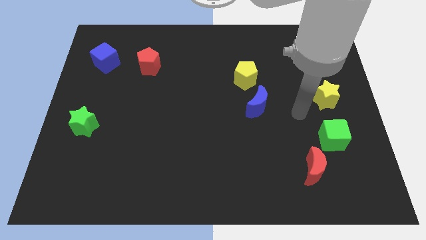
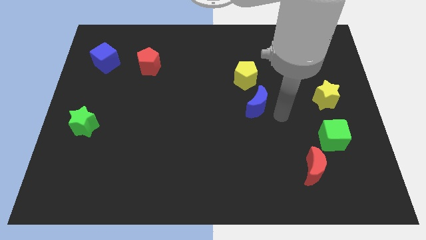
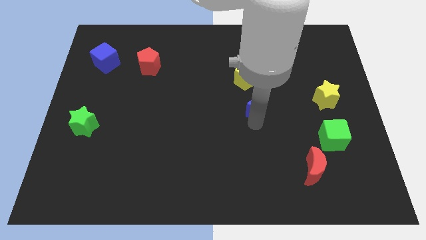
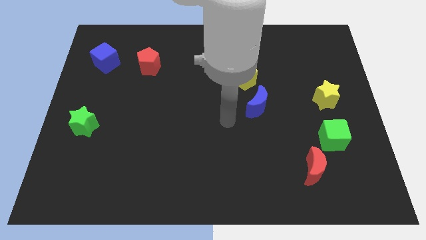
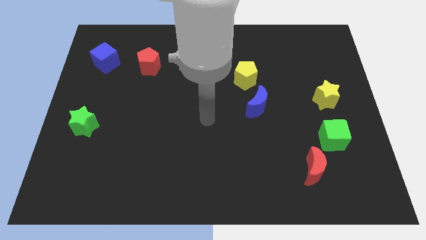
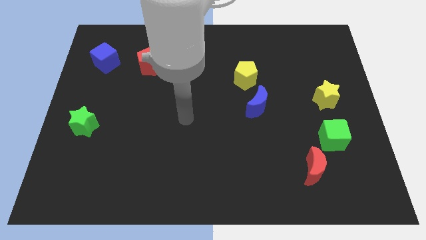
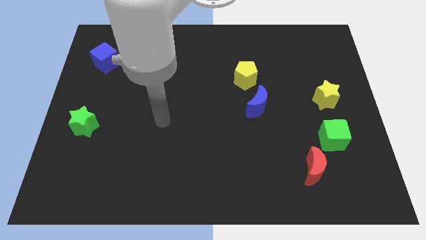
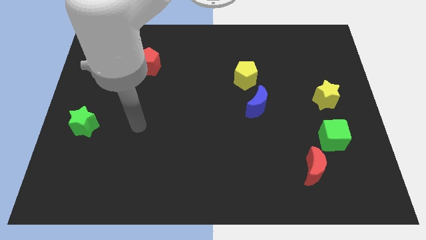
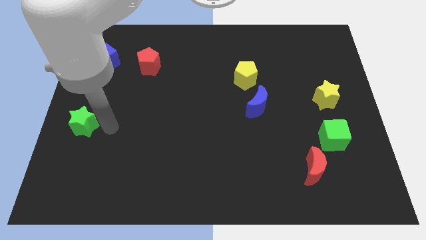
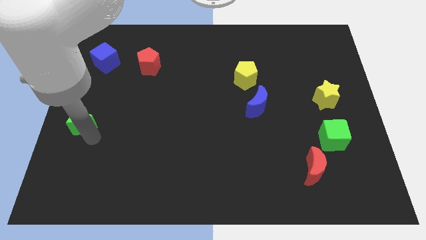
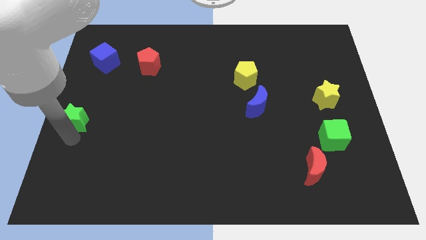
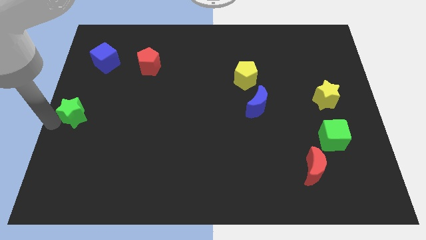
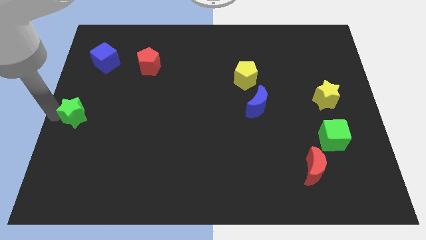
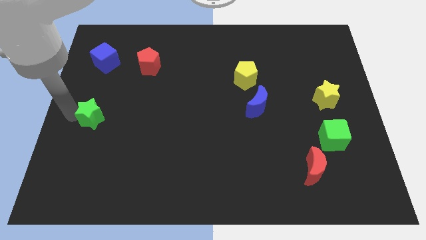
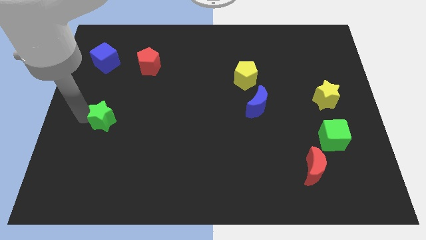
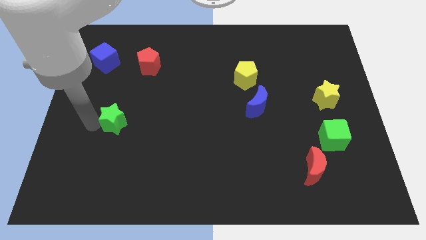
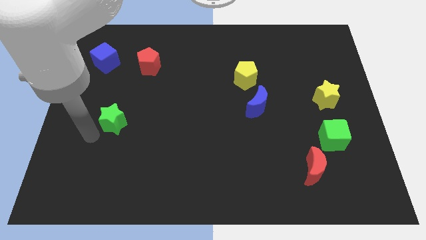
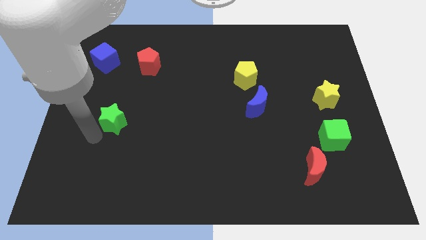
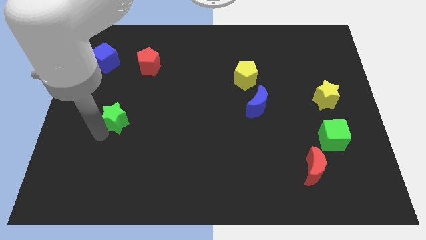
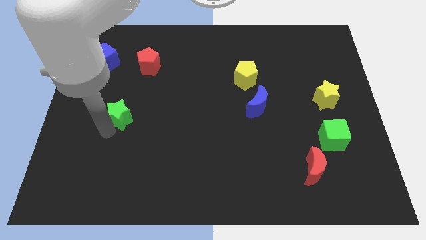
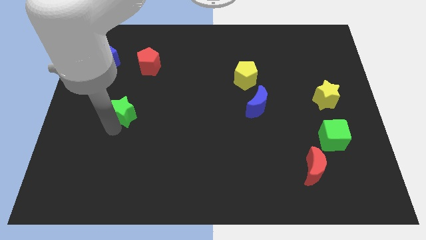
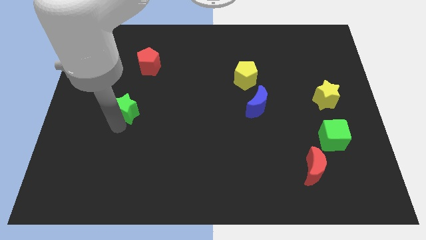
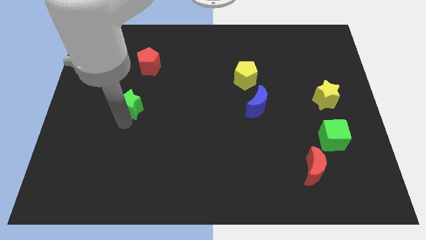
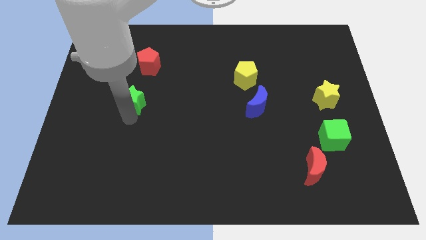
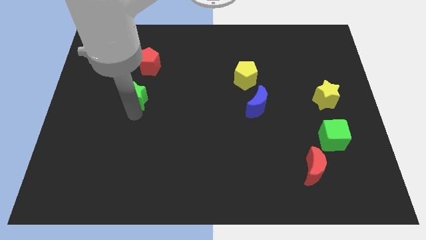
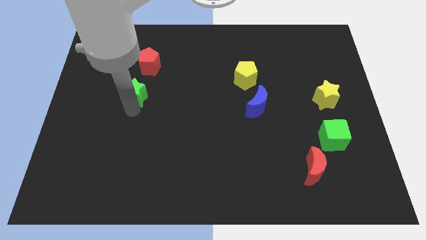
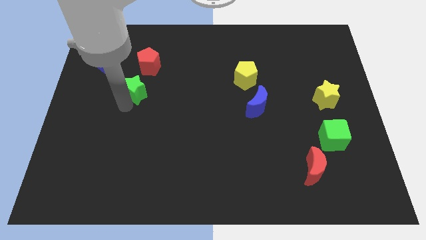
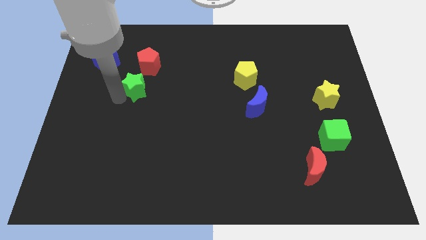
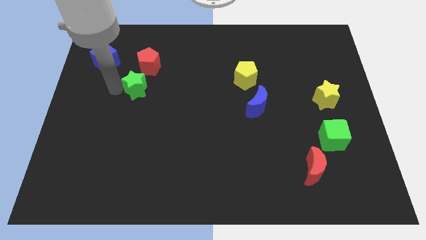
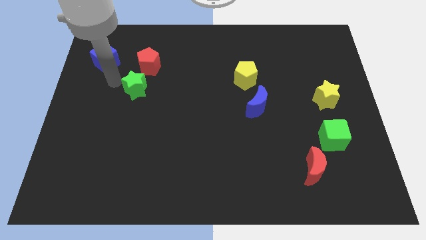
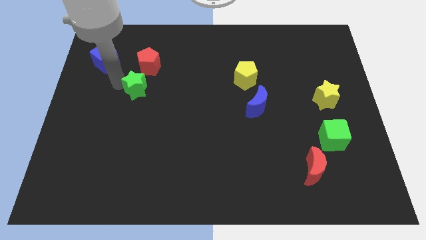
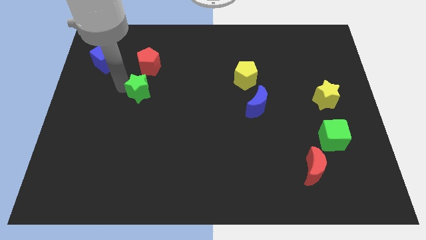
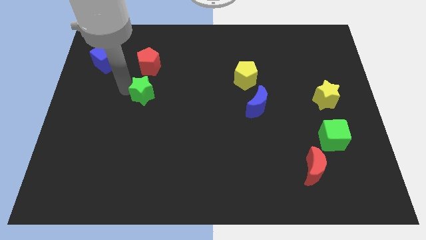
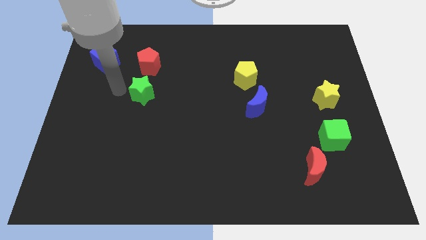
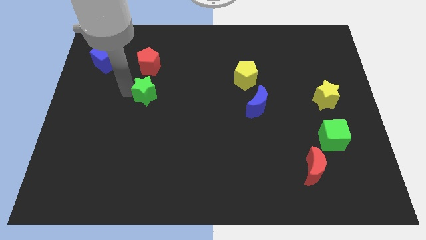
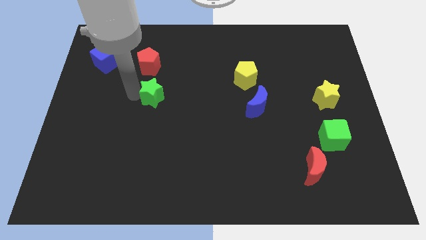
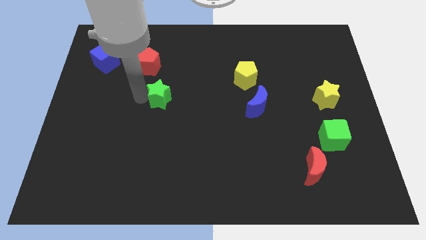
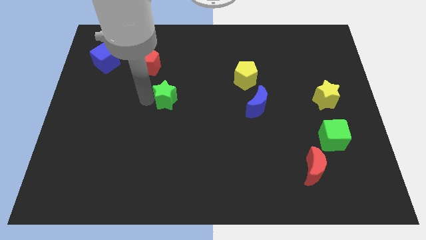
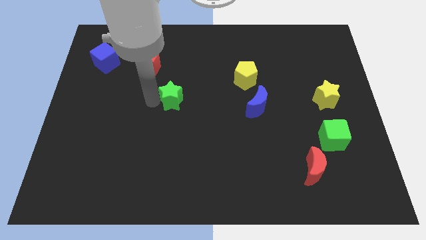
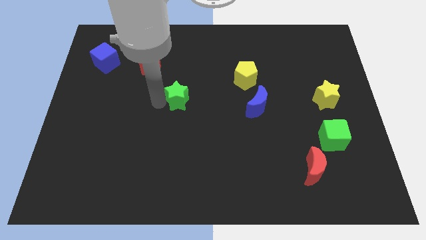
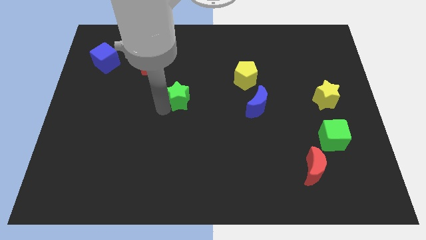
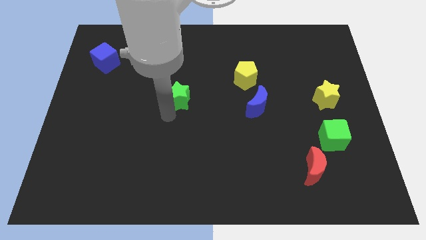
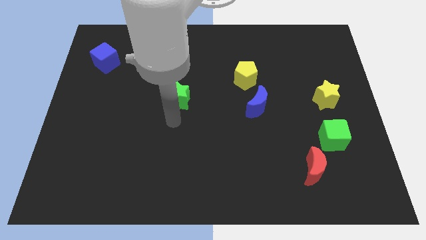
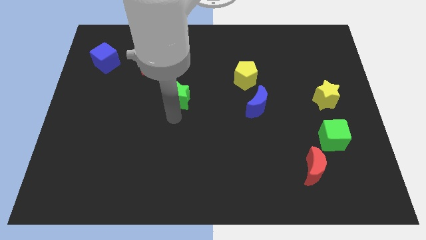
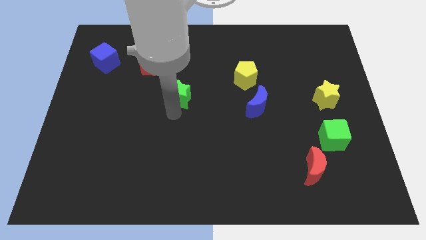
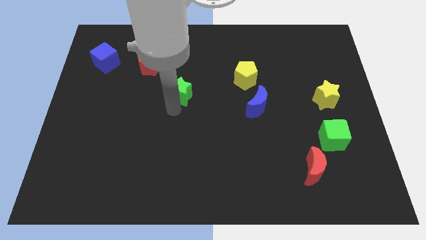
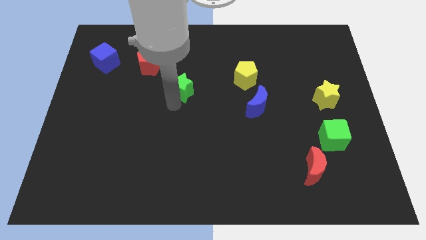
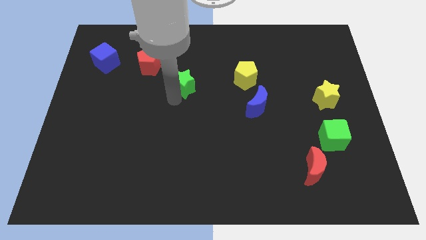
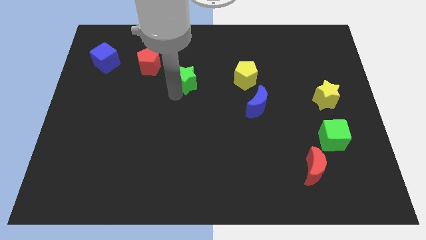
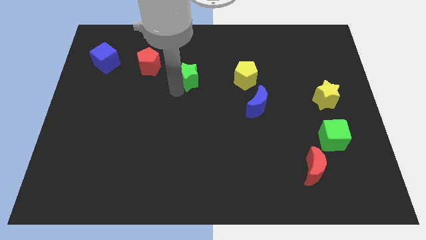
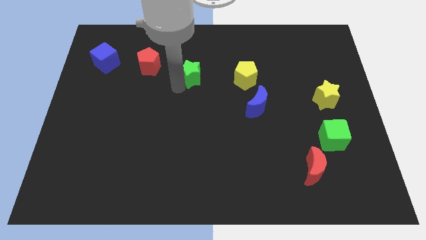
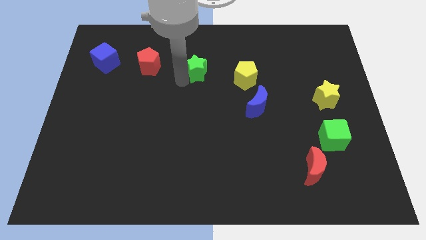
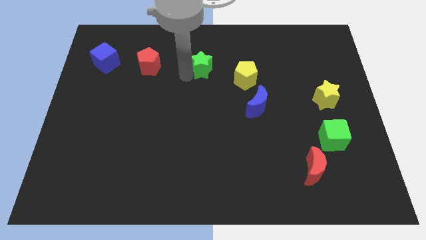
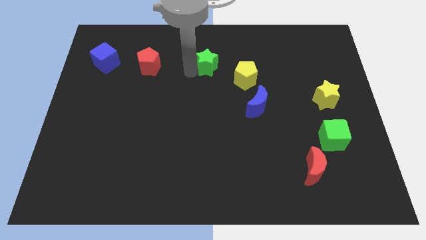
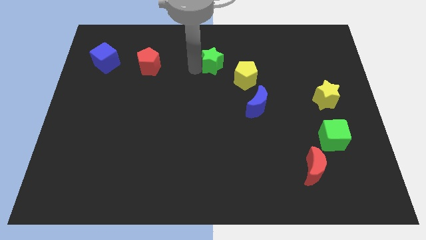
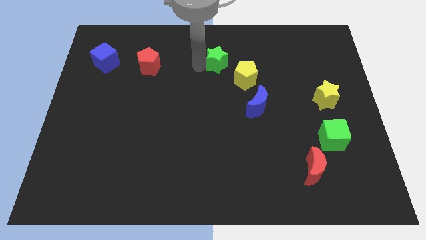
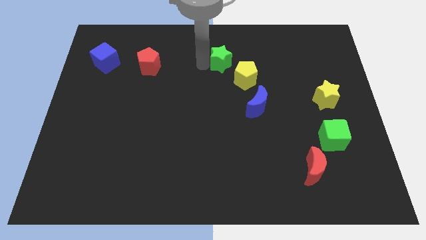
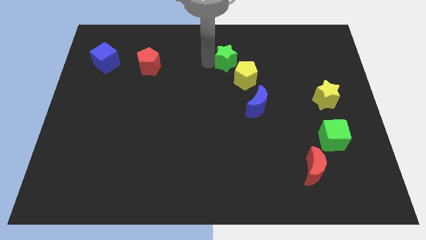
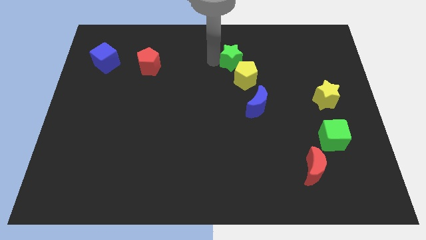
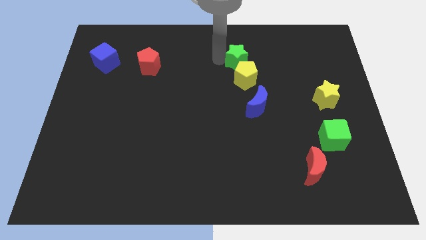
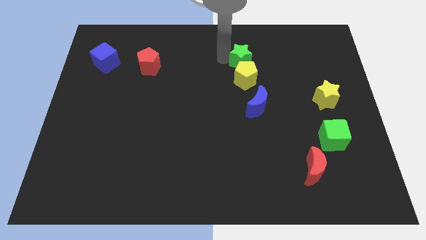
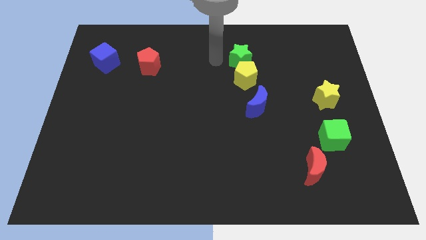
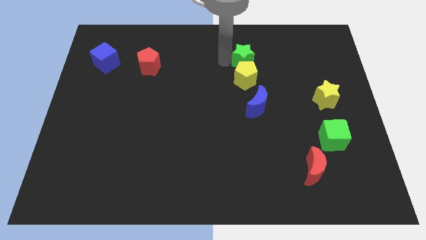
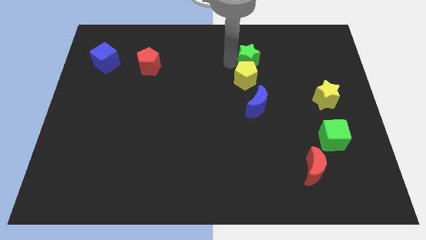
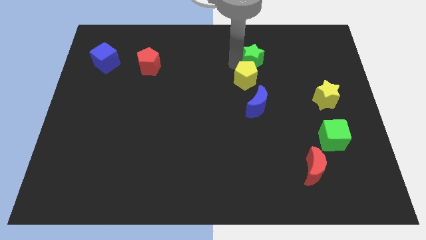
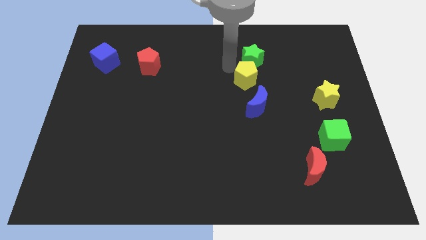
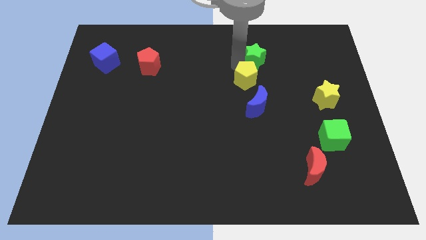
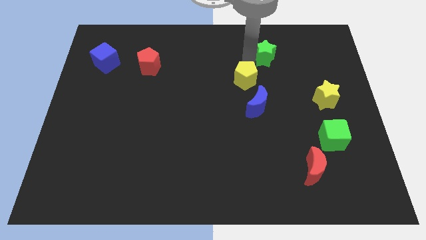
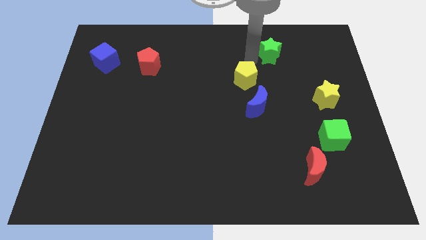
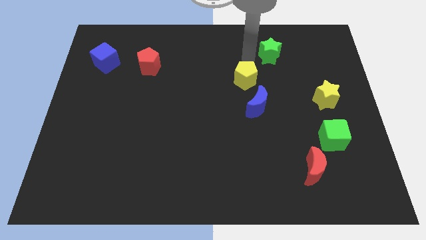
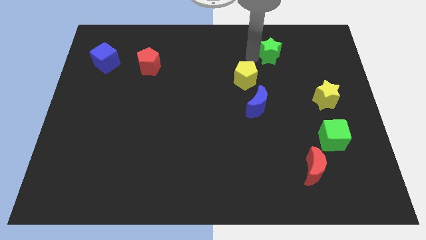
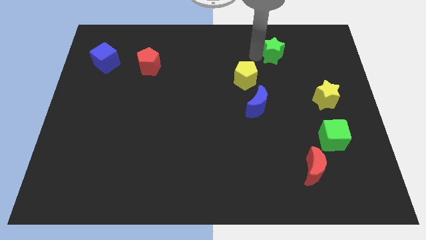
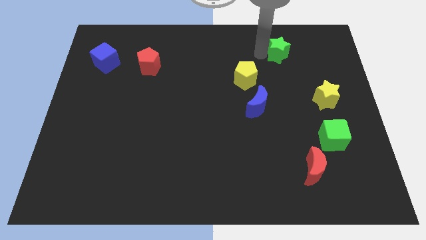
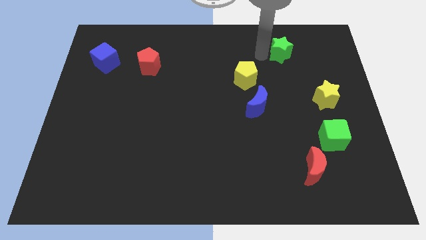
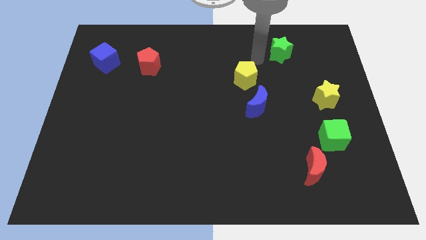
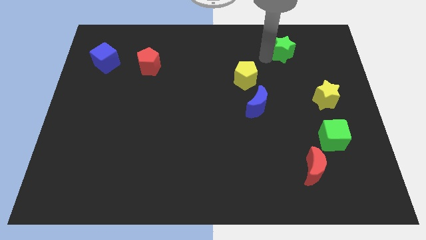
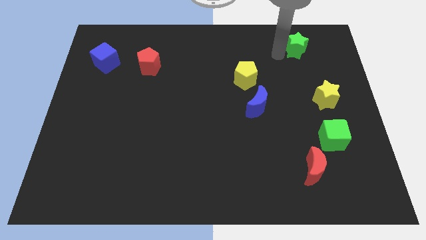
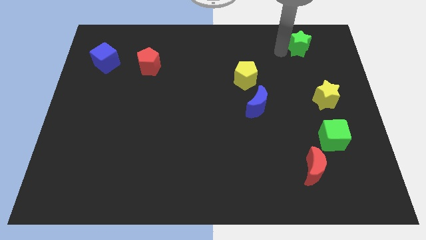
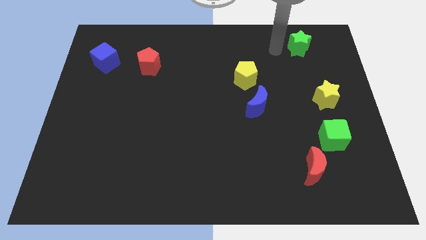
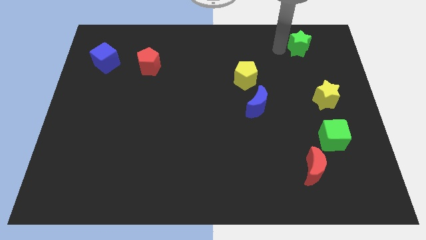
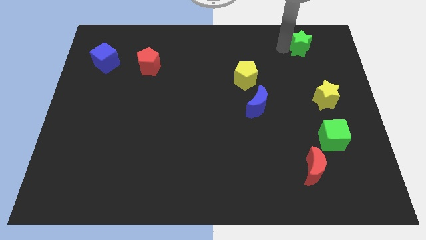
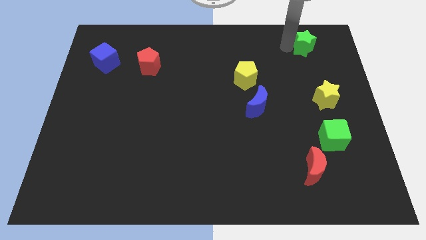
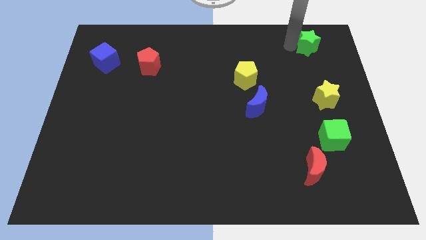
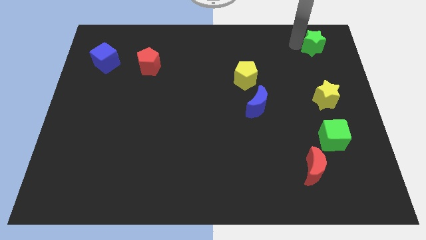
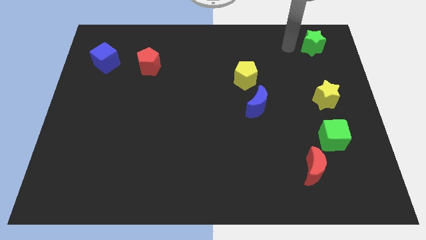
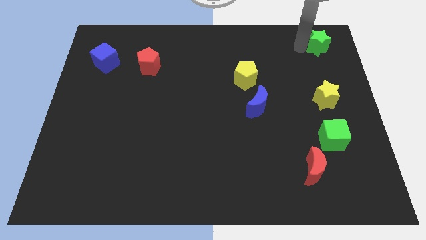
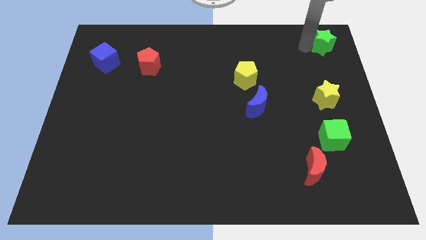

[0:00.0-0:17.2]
put the green star to the top right
